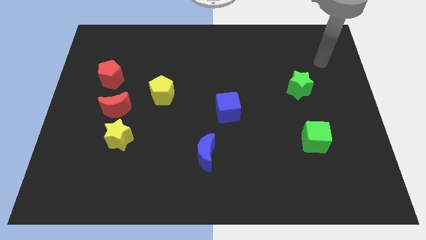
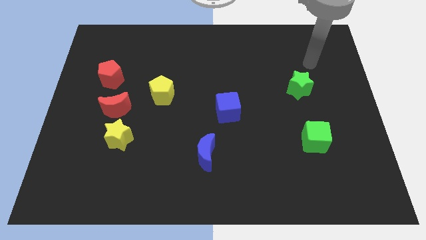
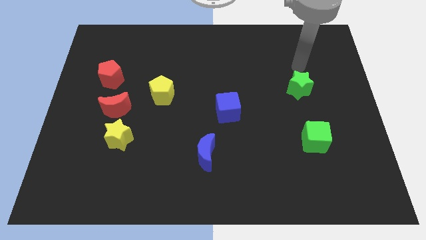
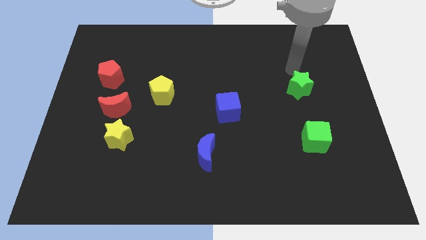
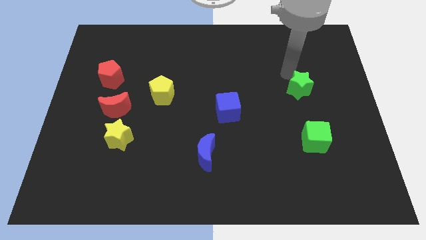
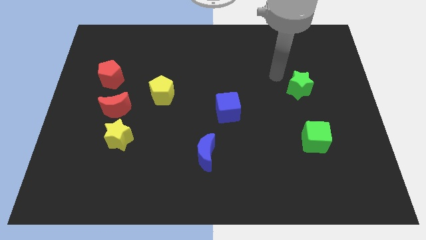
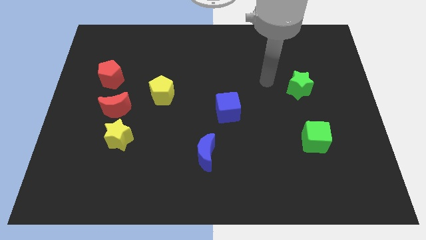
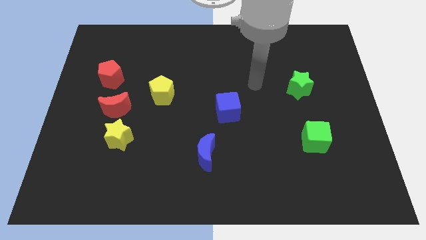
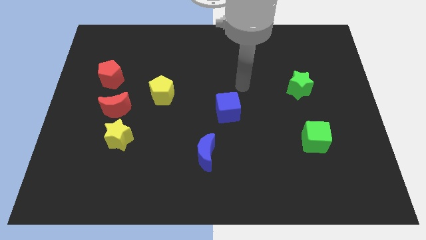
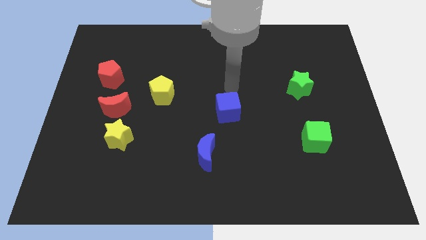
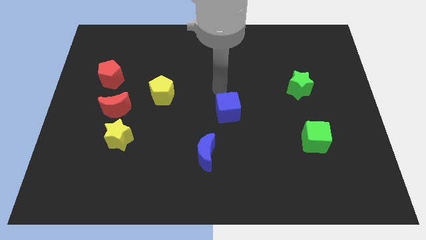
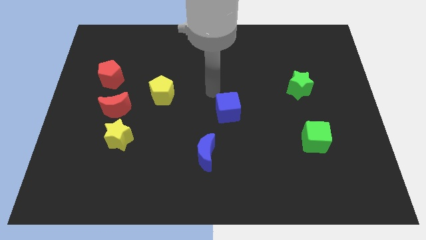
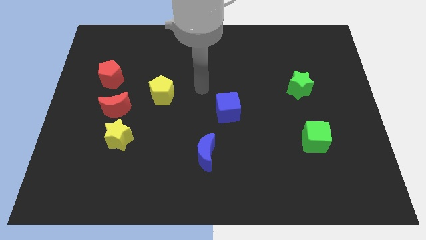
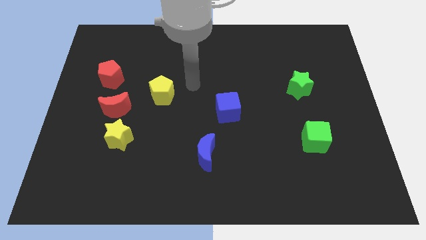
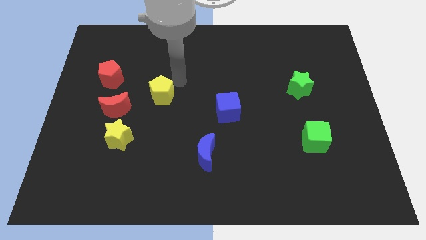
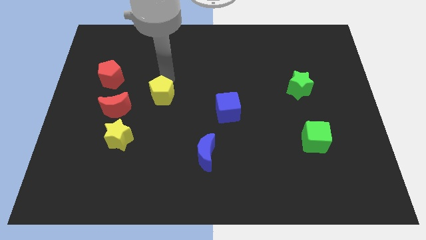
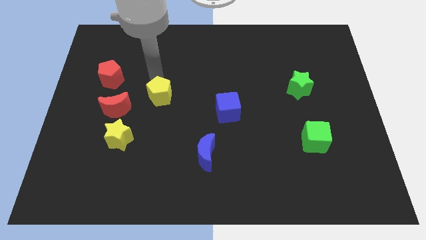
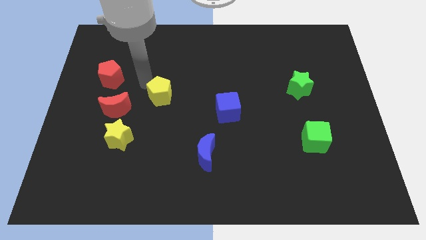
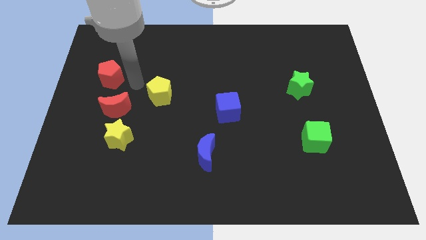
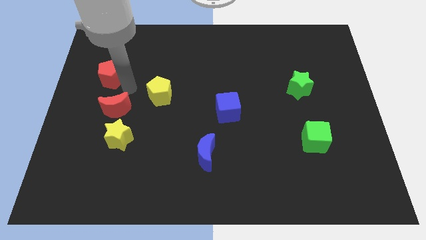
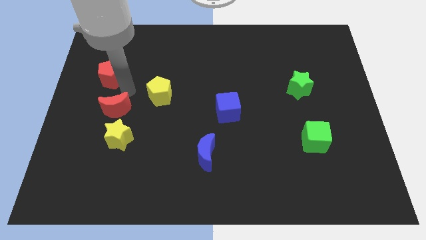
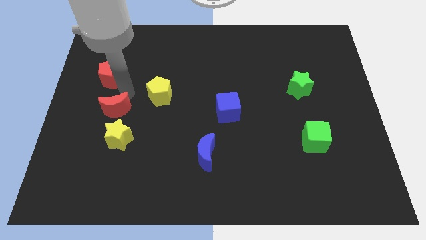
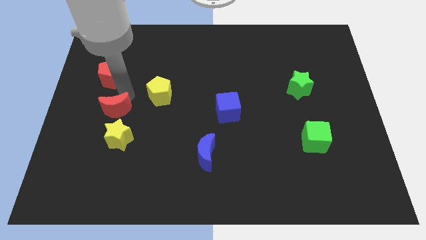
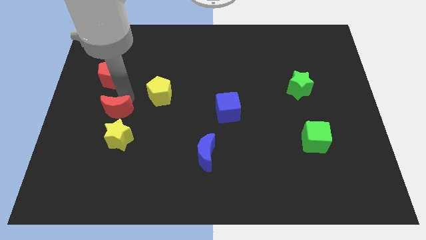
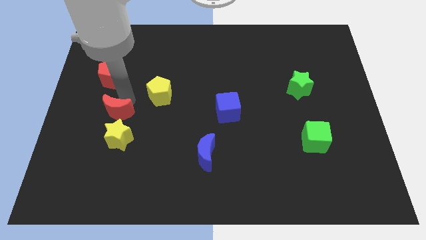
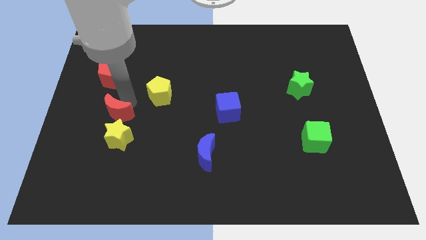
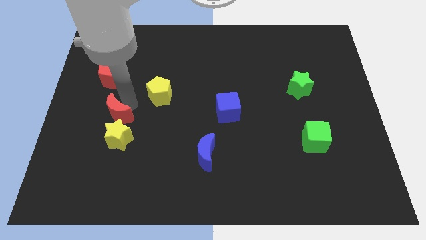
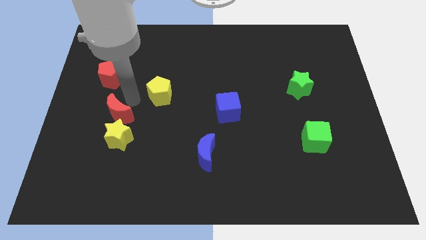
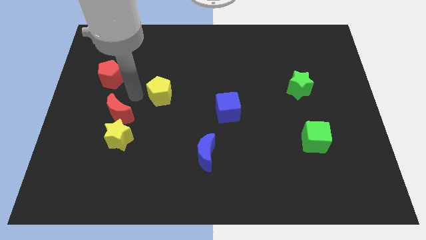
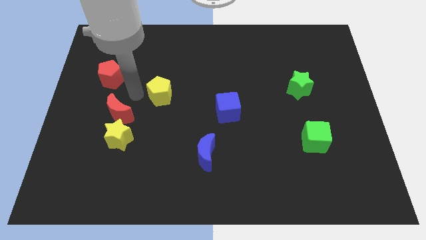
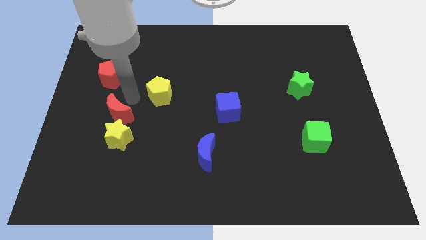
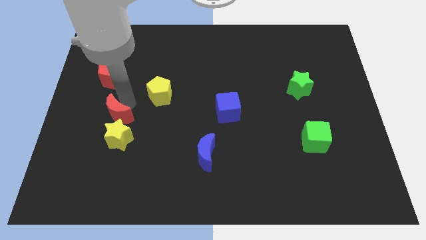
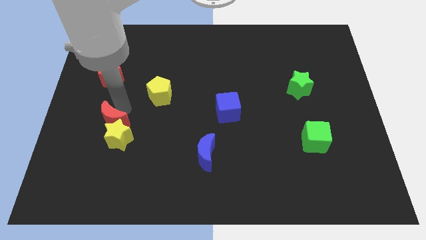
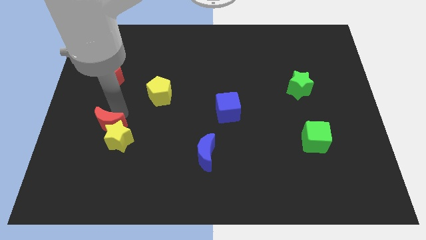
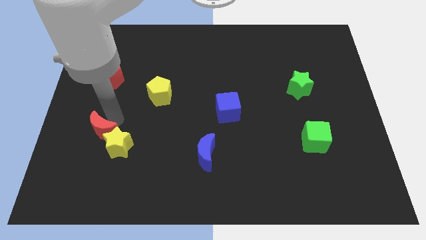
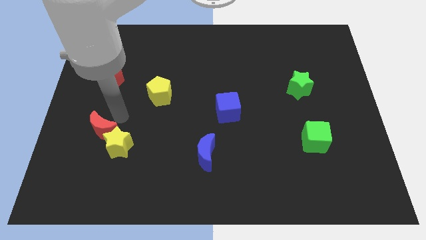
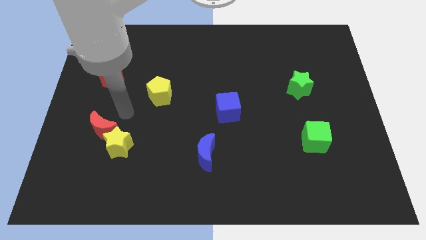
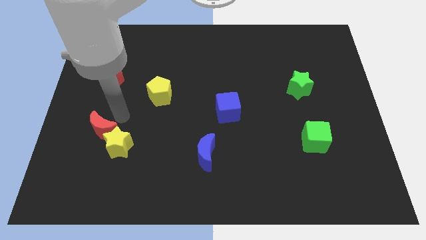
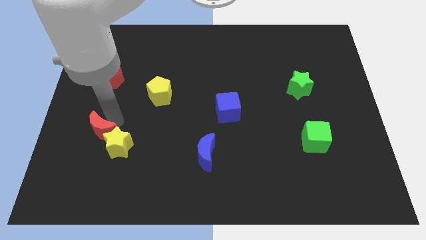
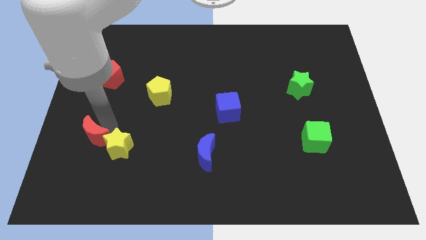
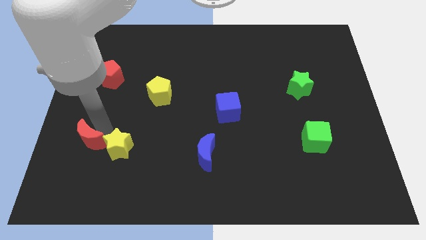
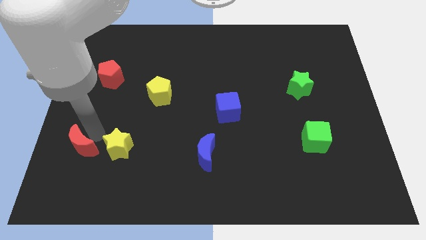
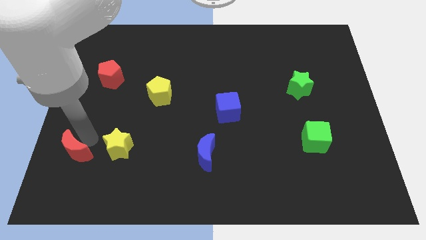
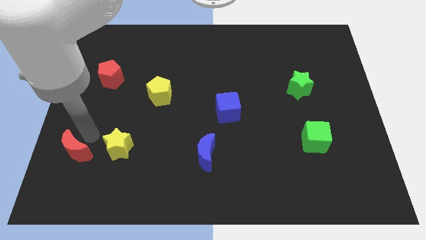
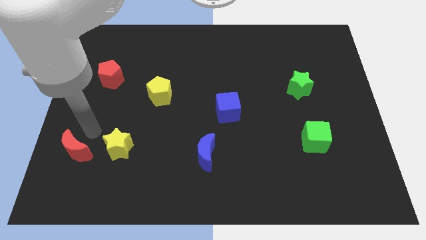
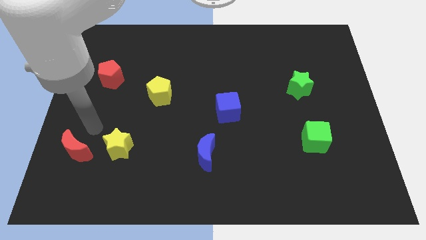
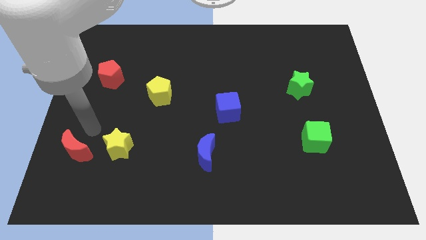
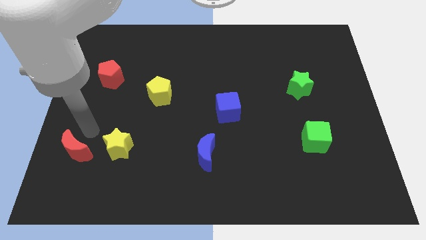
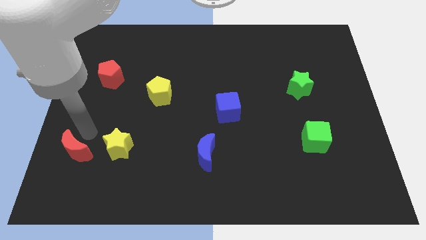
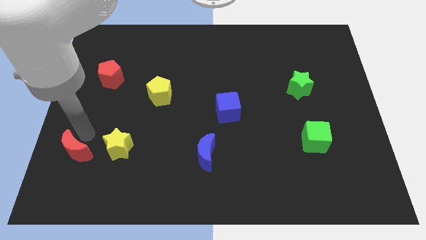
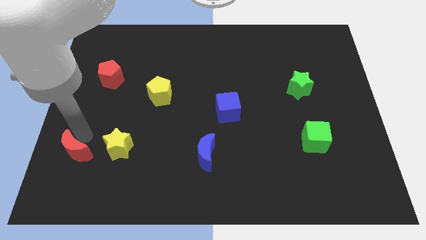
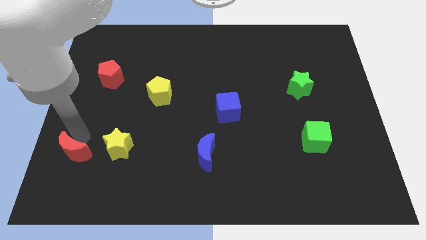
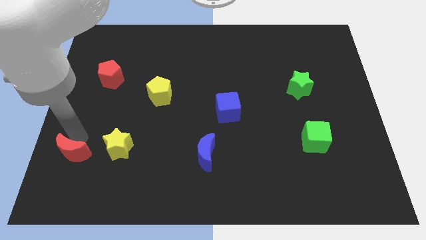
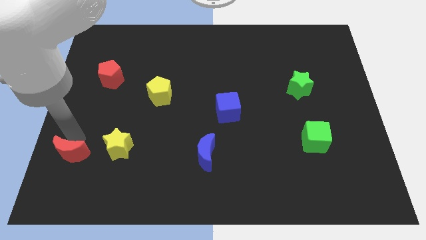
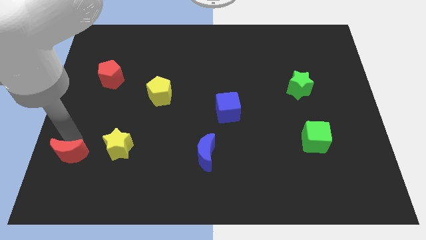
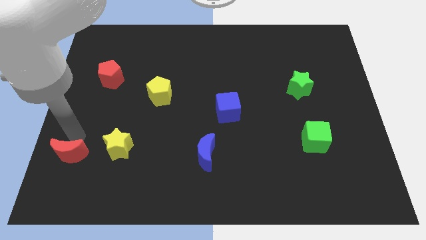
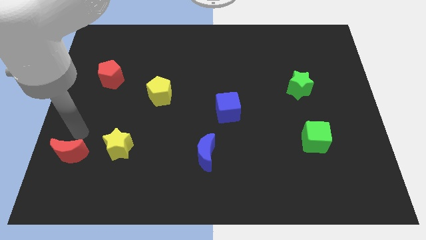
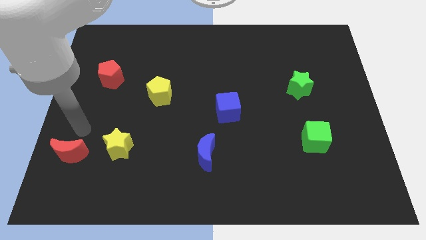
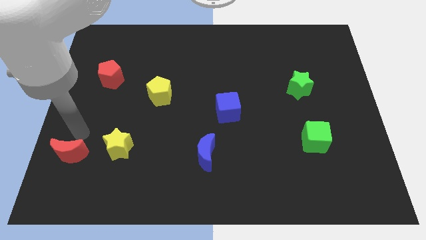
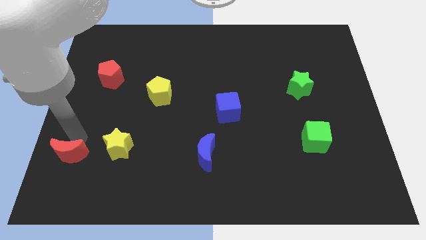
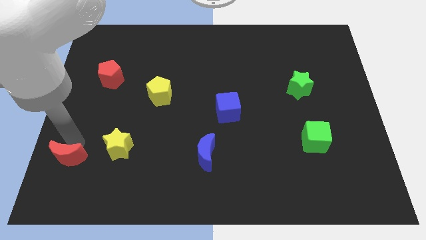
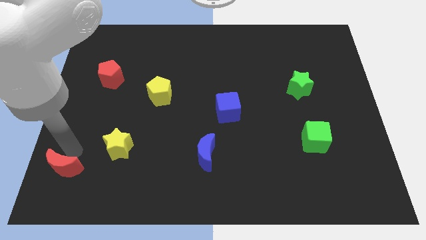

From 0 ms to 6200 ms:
push the red moon to the bottom left of the board
